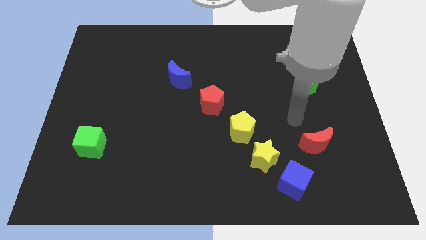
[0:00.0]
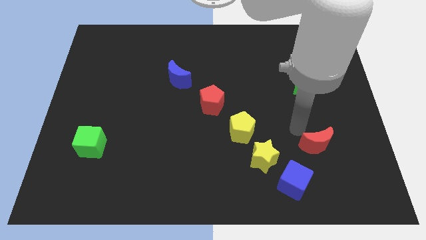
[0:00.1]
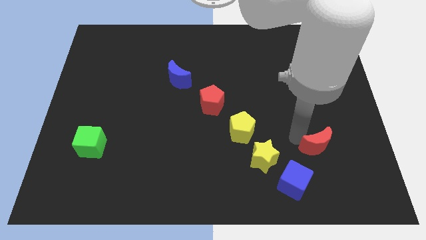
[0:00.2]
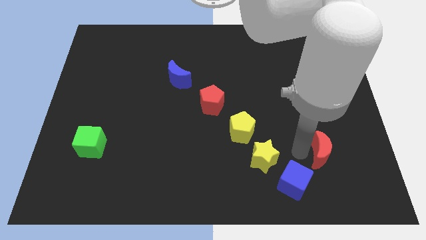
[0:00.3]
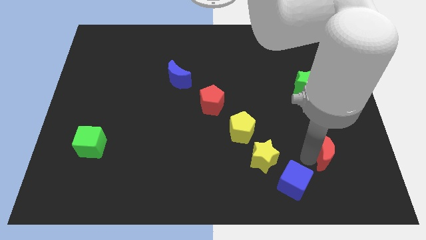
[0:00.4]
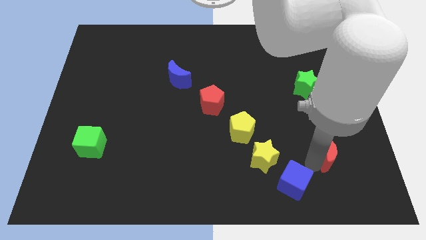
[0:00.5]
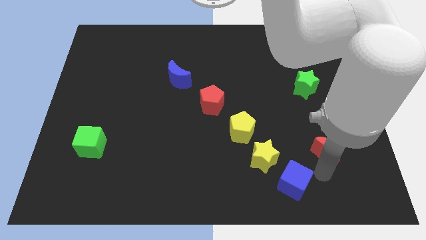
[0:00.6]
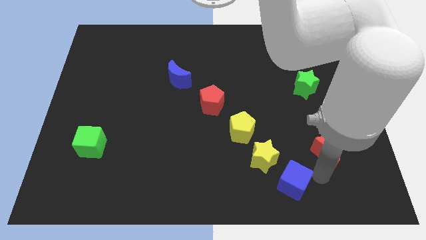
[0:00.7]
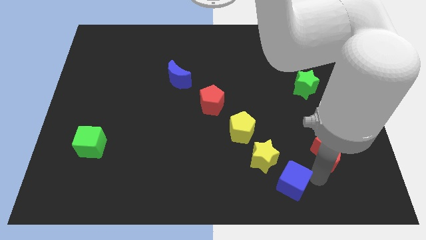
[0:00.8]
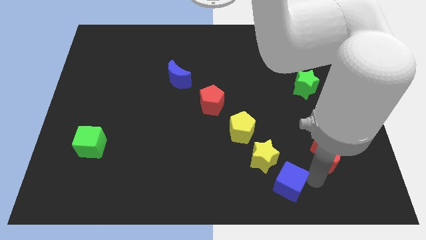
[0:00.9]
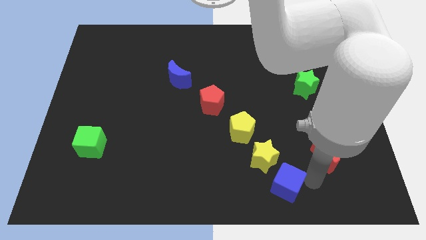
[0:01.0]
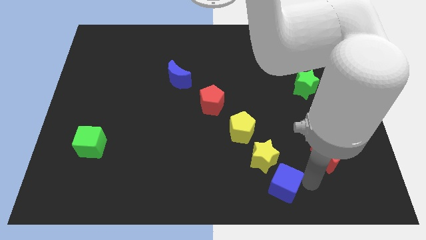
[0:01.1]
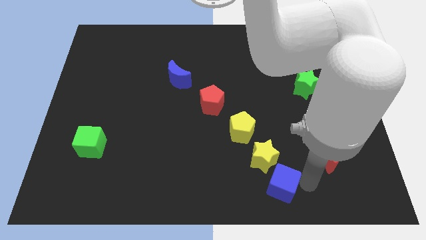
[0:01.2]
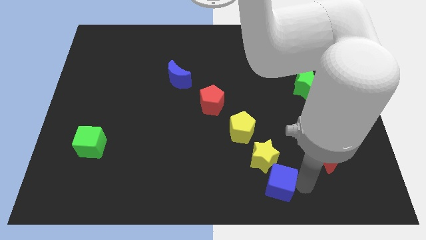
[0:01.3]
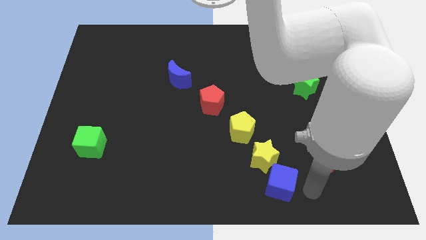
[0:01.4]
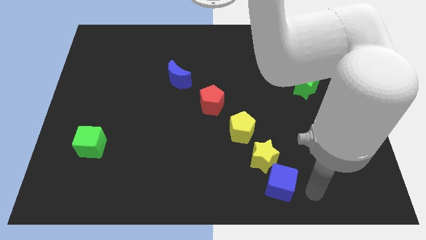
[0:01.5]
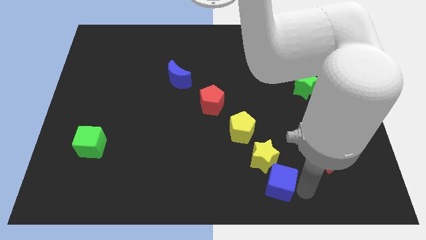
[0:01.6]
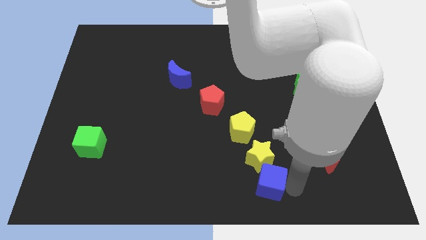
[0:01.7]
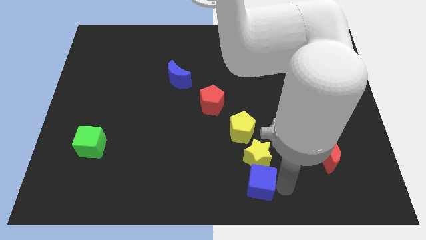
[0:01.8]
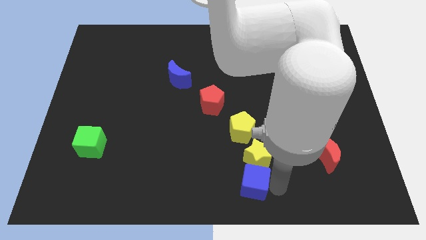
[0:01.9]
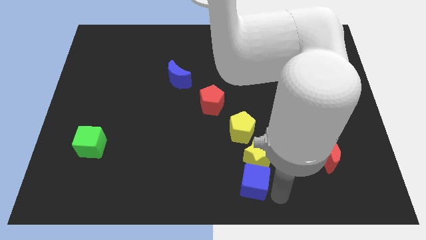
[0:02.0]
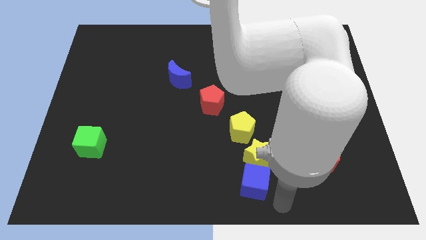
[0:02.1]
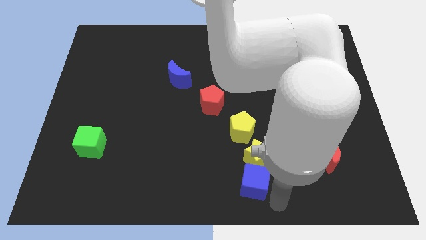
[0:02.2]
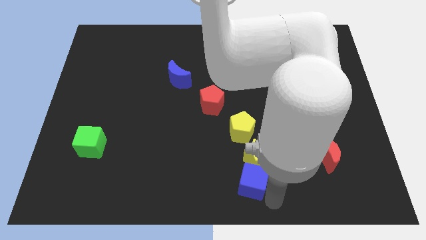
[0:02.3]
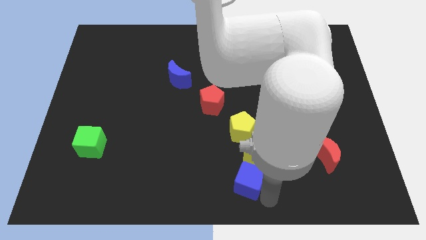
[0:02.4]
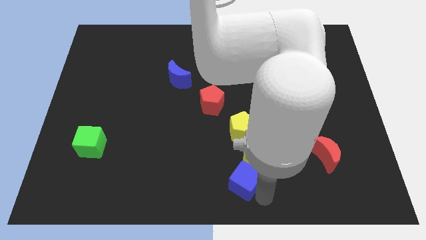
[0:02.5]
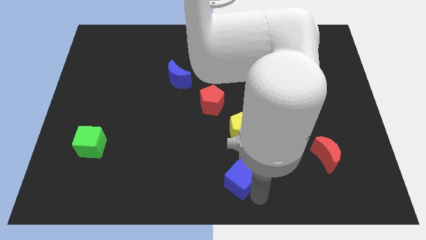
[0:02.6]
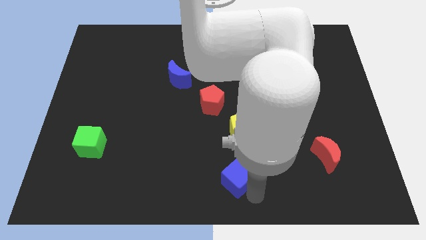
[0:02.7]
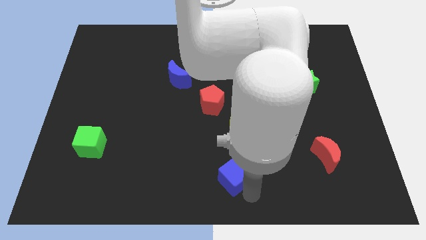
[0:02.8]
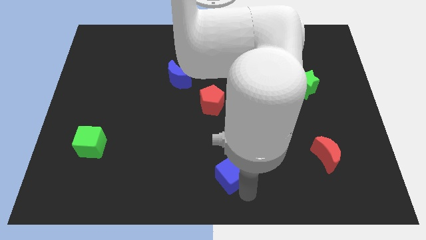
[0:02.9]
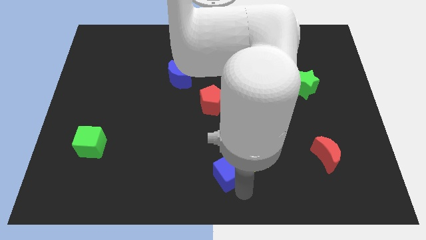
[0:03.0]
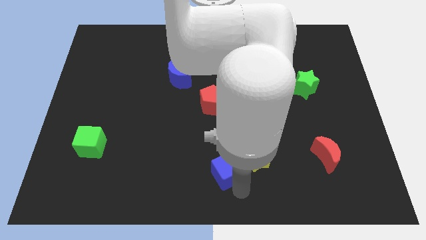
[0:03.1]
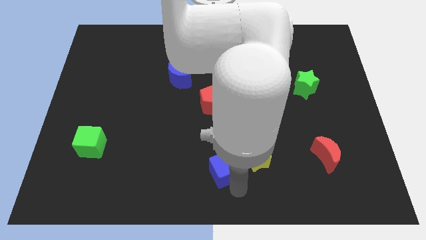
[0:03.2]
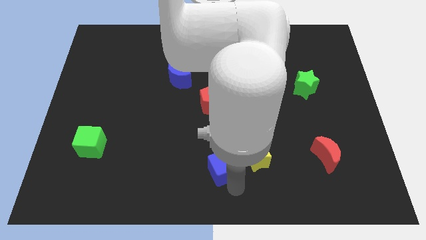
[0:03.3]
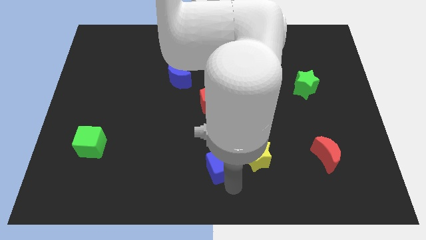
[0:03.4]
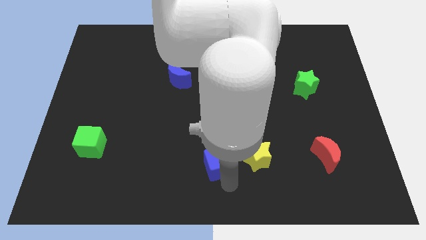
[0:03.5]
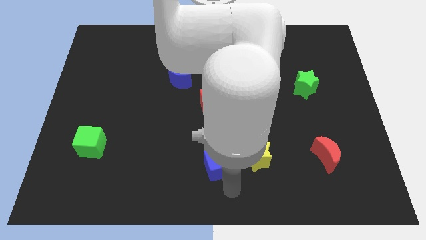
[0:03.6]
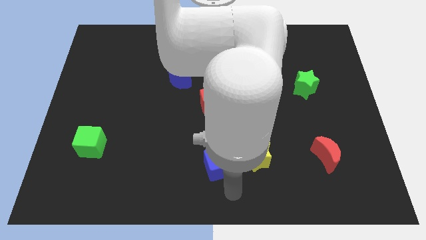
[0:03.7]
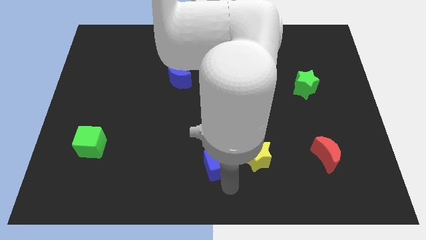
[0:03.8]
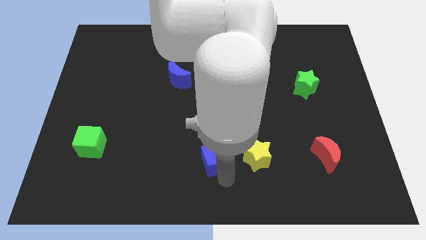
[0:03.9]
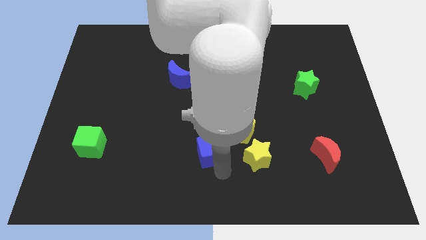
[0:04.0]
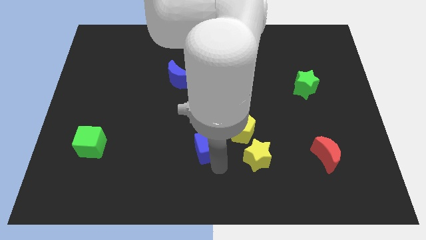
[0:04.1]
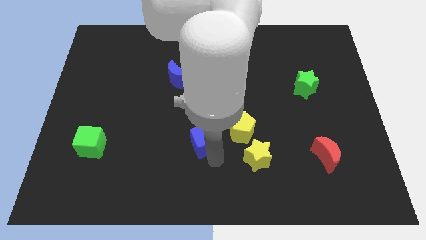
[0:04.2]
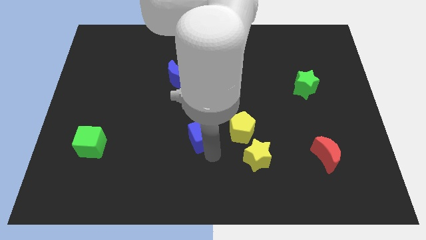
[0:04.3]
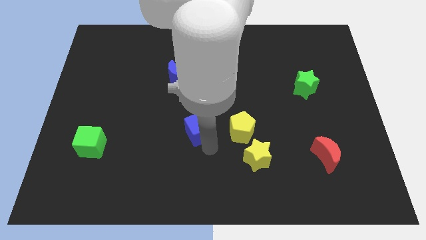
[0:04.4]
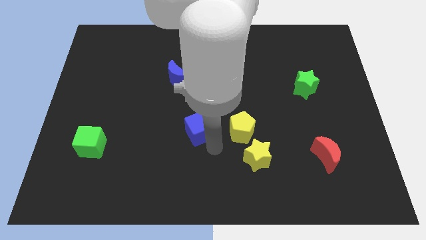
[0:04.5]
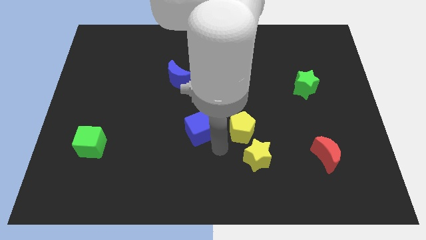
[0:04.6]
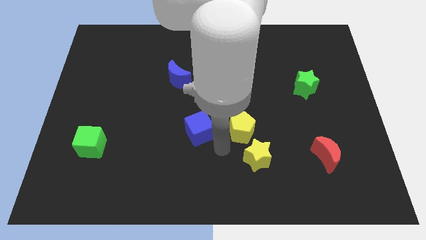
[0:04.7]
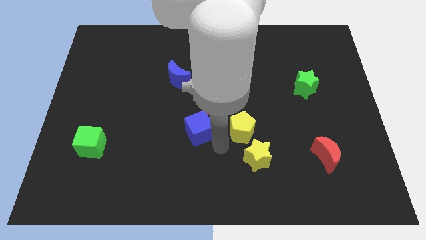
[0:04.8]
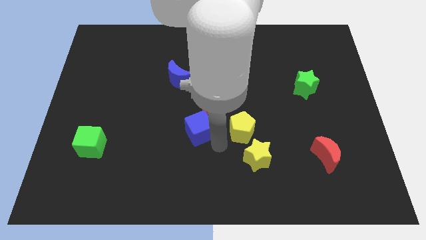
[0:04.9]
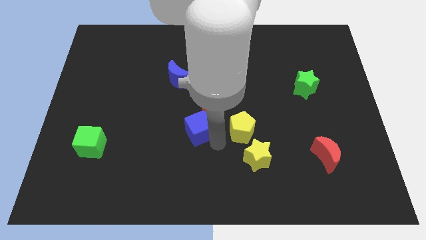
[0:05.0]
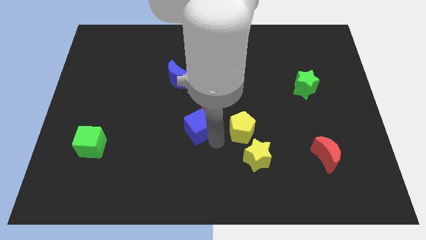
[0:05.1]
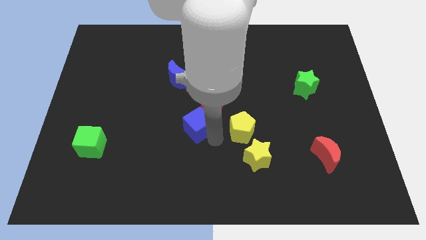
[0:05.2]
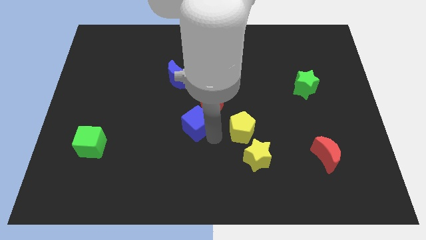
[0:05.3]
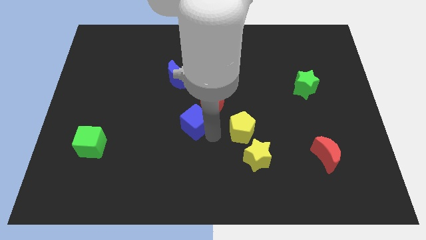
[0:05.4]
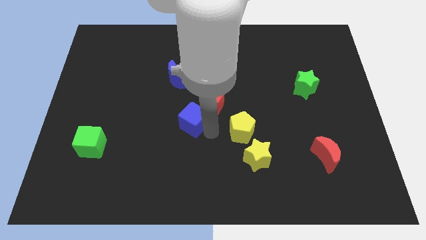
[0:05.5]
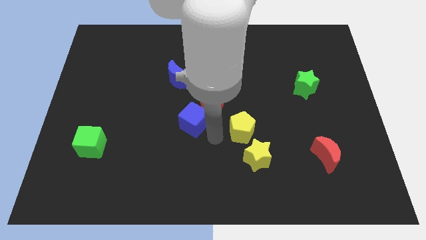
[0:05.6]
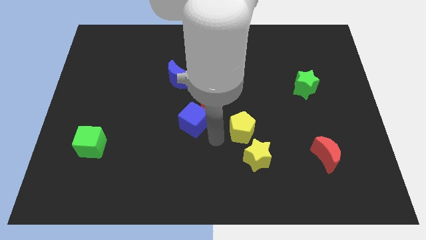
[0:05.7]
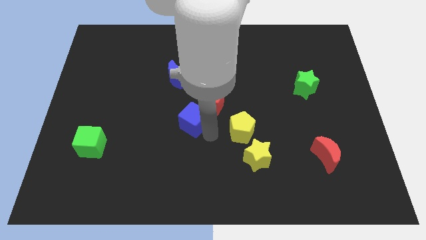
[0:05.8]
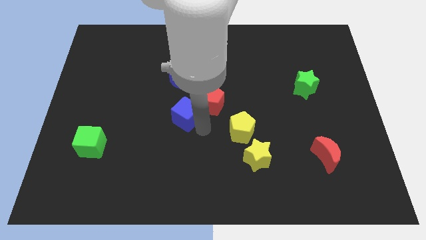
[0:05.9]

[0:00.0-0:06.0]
push the blue cube left of the red pentagon
